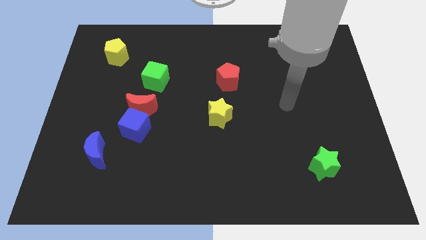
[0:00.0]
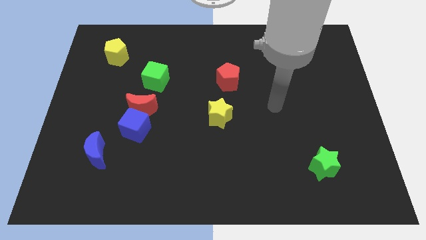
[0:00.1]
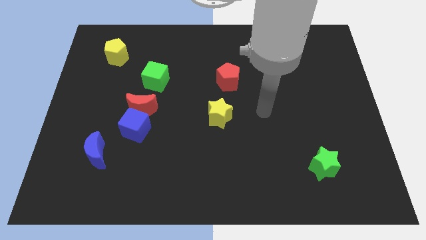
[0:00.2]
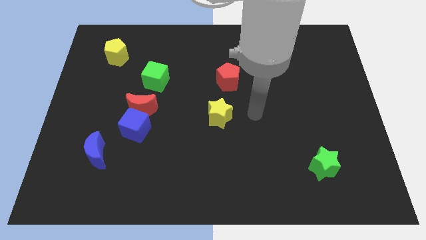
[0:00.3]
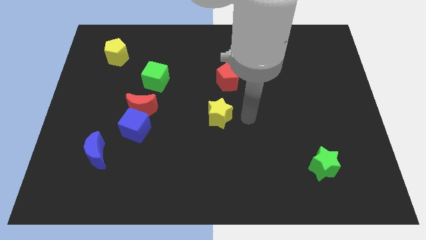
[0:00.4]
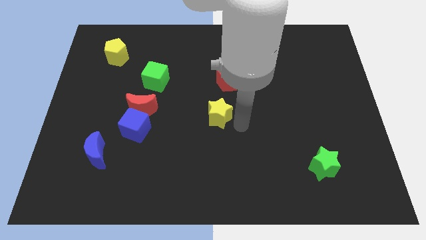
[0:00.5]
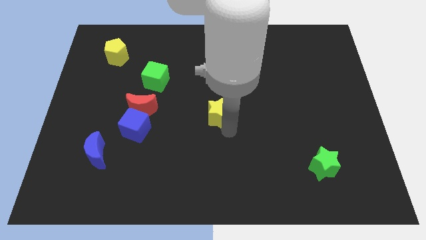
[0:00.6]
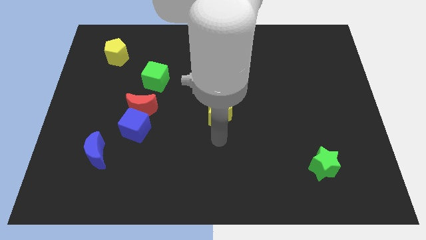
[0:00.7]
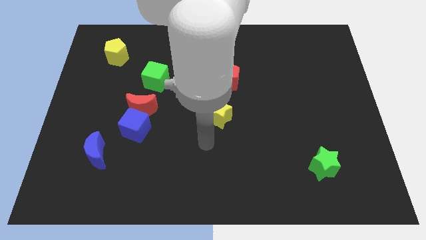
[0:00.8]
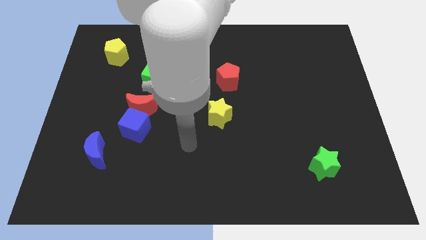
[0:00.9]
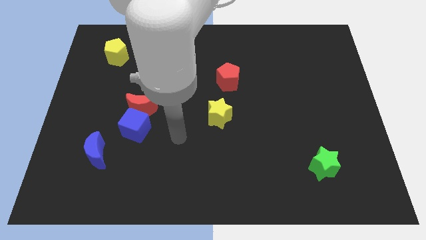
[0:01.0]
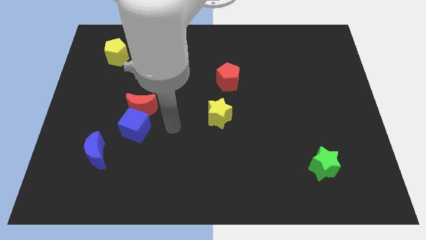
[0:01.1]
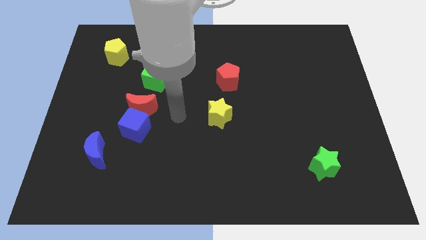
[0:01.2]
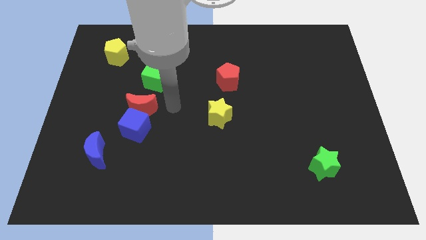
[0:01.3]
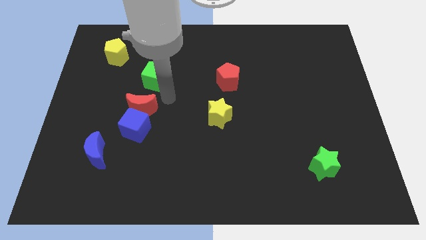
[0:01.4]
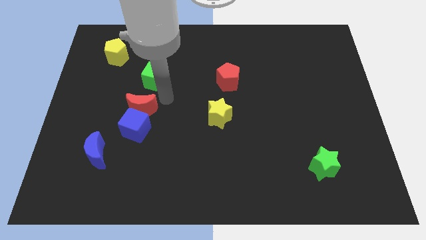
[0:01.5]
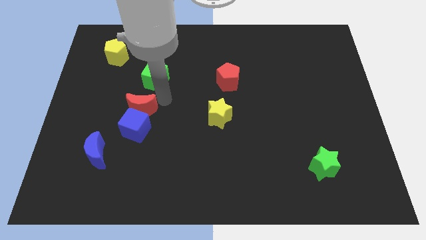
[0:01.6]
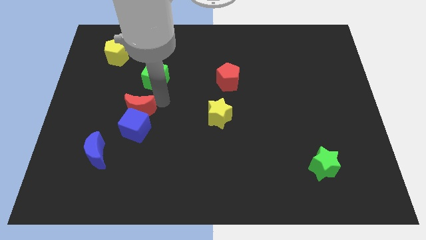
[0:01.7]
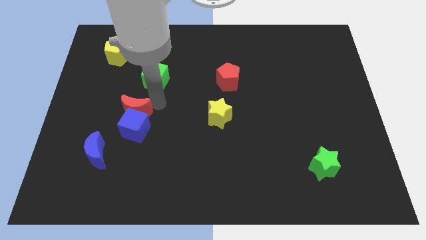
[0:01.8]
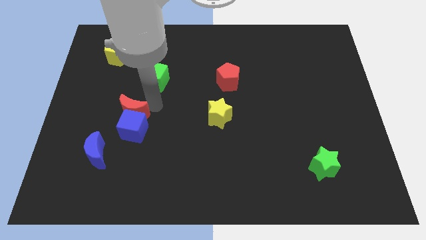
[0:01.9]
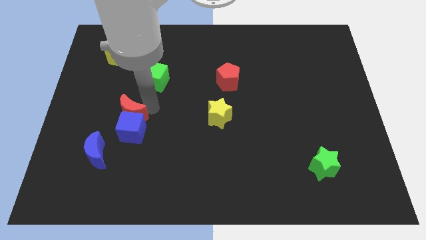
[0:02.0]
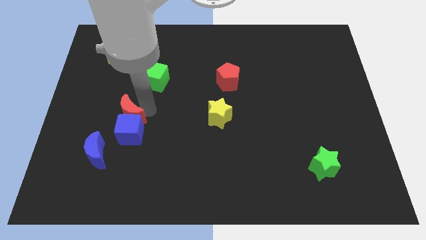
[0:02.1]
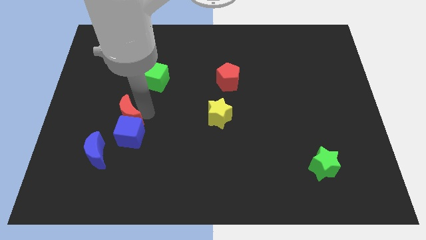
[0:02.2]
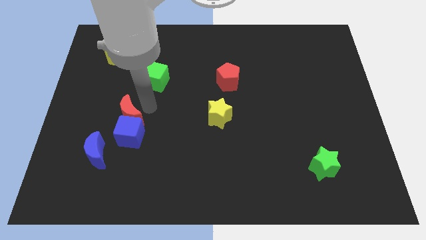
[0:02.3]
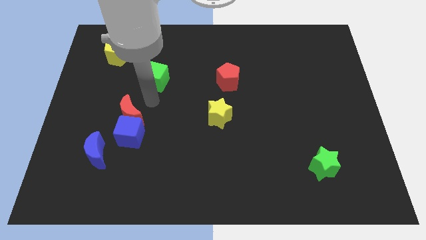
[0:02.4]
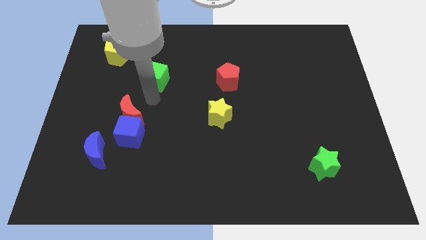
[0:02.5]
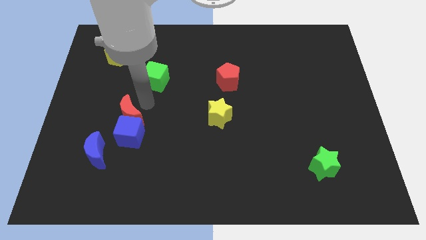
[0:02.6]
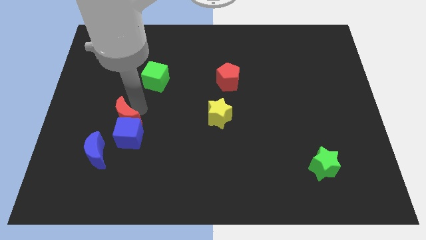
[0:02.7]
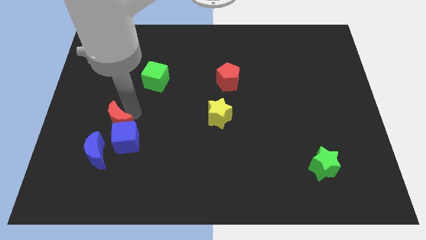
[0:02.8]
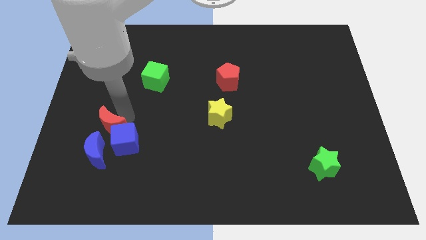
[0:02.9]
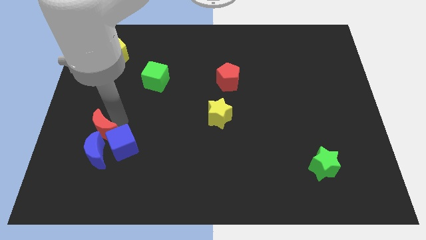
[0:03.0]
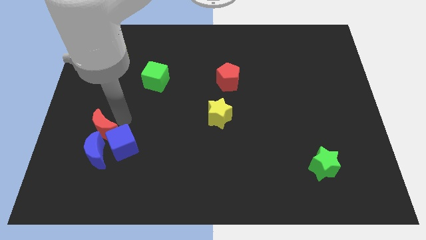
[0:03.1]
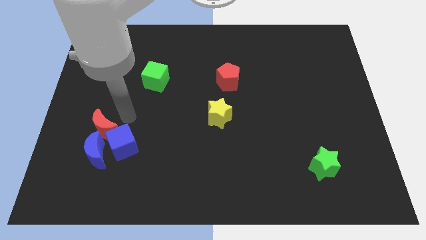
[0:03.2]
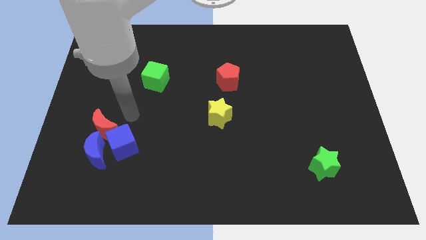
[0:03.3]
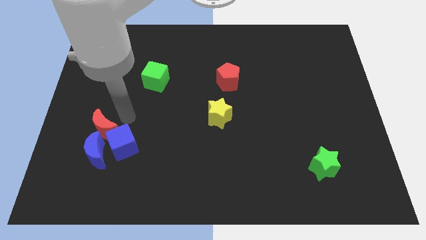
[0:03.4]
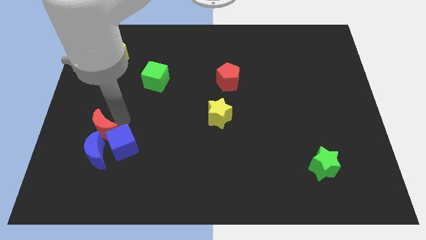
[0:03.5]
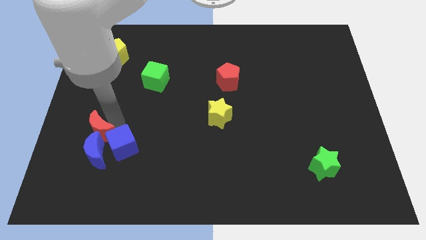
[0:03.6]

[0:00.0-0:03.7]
pull the red moon apart from the blue cube and green cube

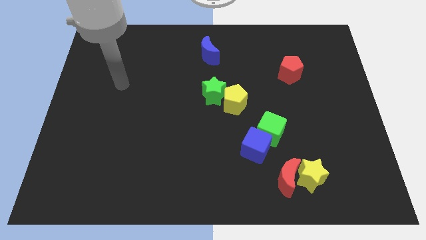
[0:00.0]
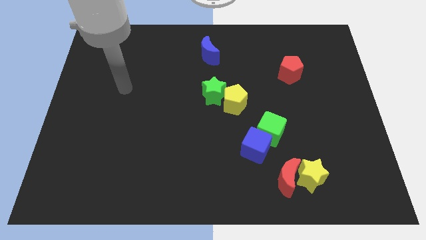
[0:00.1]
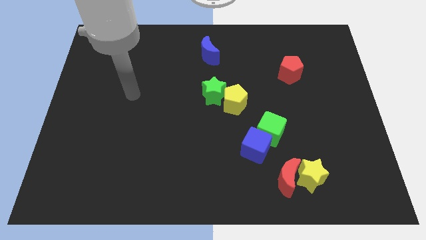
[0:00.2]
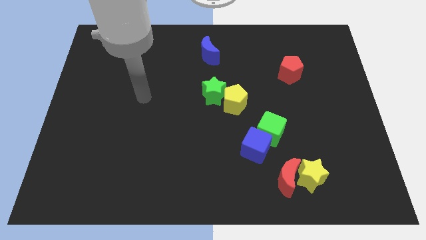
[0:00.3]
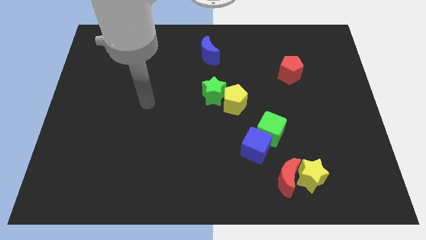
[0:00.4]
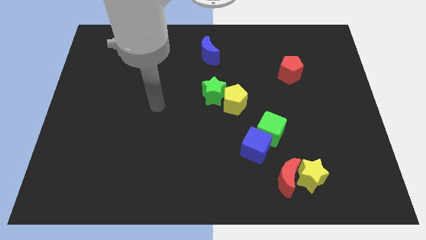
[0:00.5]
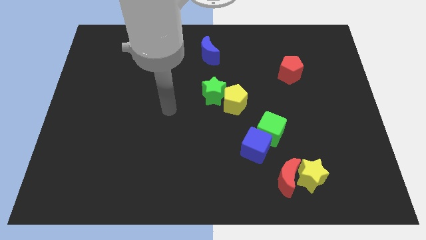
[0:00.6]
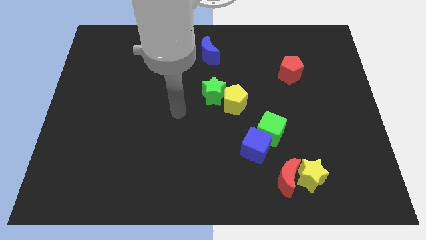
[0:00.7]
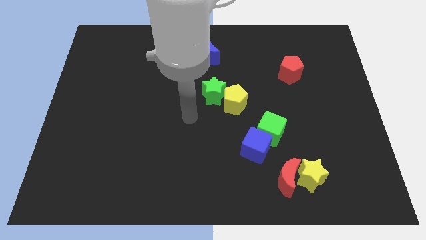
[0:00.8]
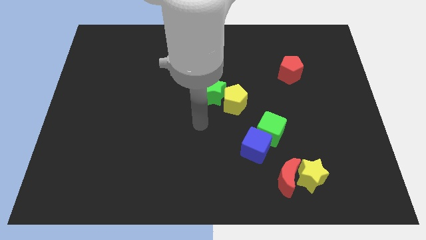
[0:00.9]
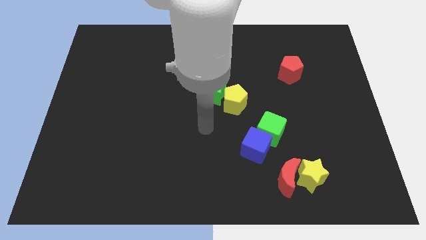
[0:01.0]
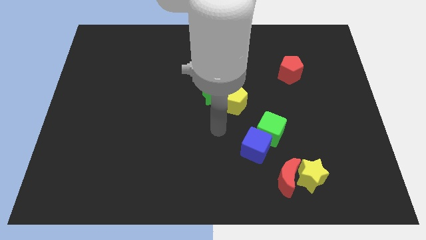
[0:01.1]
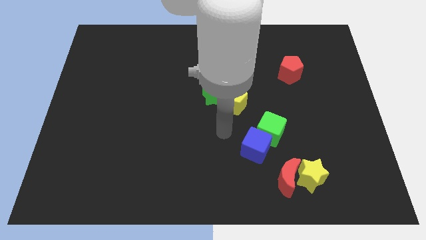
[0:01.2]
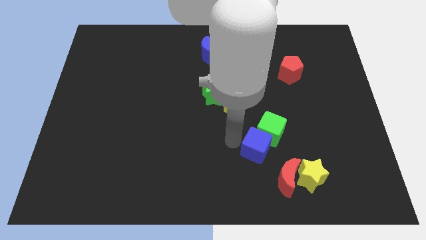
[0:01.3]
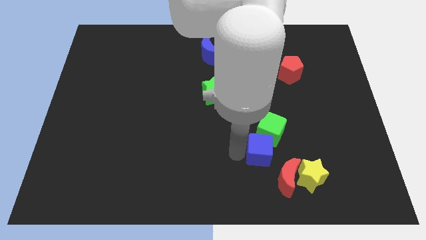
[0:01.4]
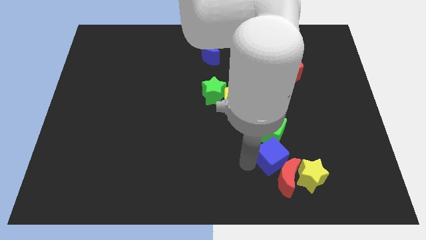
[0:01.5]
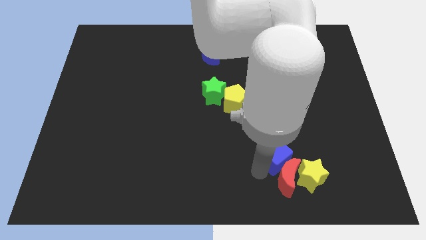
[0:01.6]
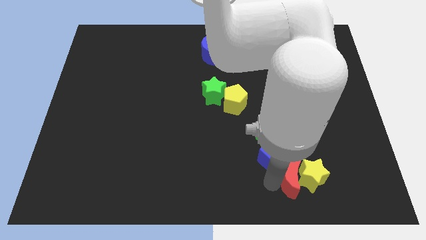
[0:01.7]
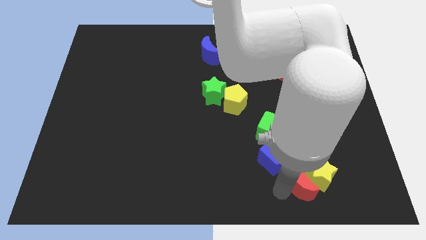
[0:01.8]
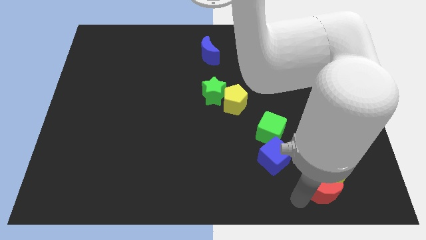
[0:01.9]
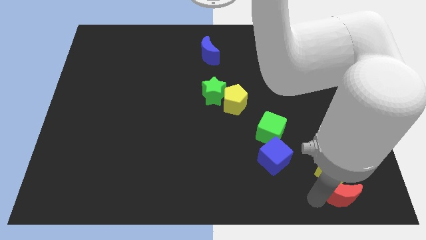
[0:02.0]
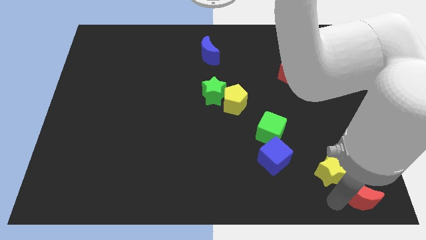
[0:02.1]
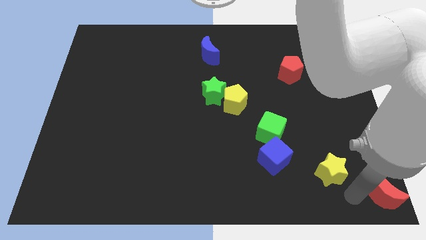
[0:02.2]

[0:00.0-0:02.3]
pull the yellow star apart from the red moon

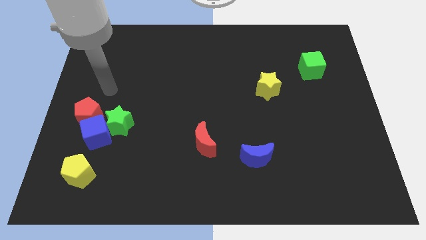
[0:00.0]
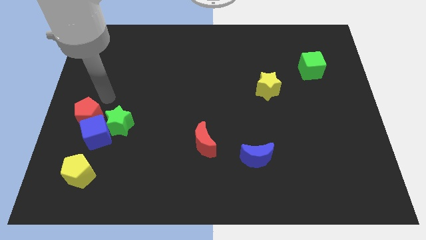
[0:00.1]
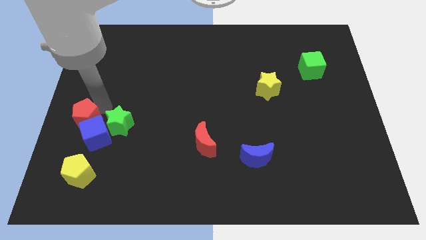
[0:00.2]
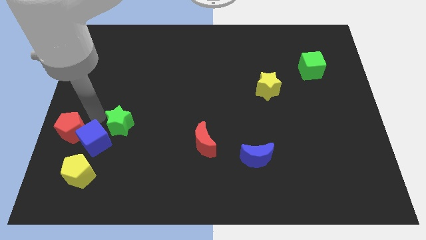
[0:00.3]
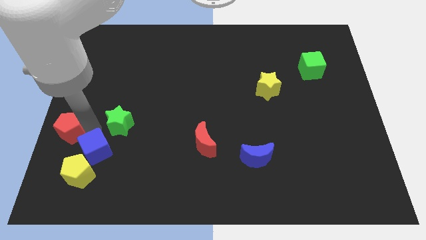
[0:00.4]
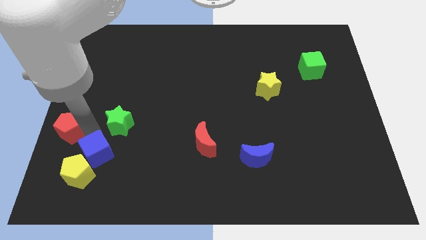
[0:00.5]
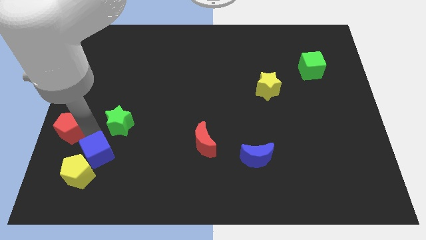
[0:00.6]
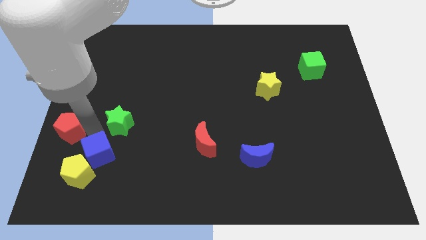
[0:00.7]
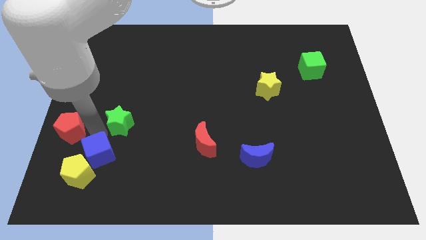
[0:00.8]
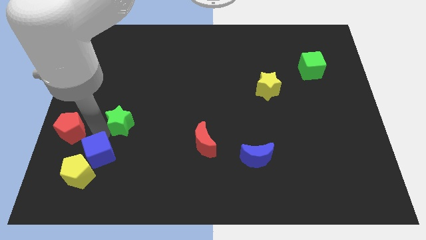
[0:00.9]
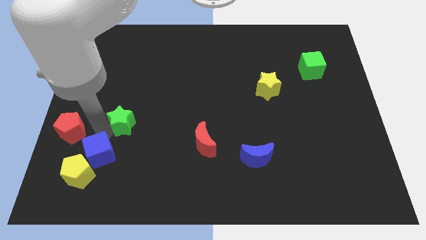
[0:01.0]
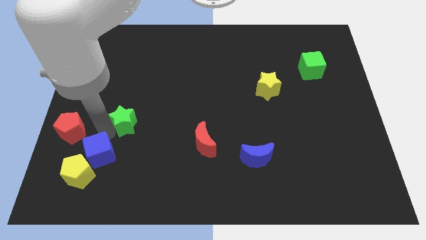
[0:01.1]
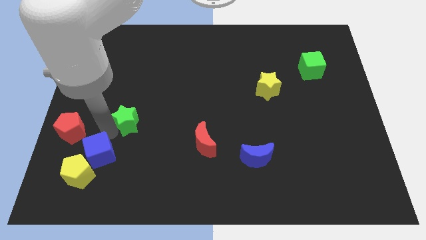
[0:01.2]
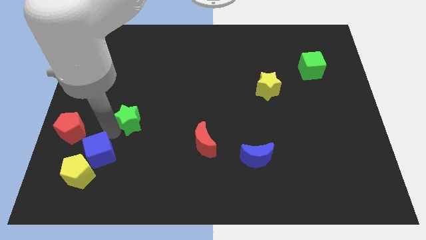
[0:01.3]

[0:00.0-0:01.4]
move the green star away from the blue cube and red pentagon

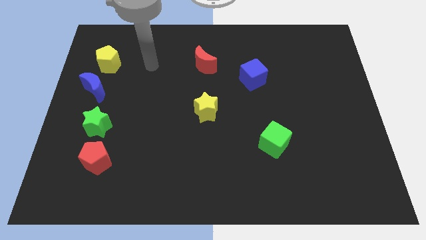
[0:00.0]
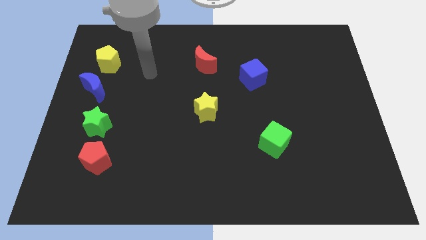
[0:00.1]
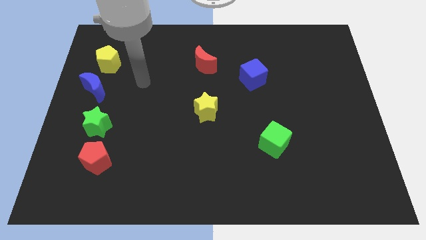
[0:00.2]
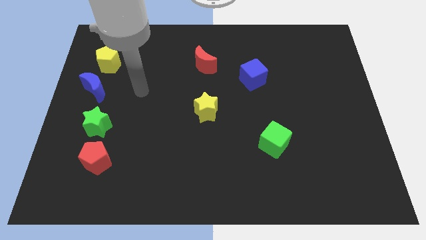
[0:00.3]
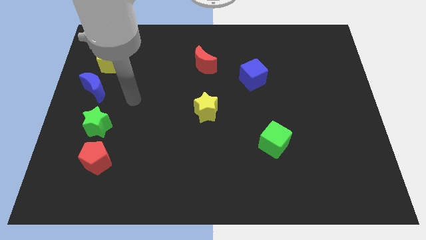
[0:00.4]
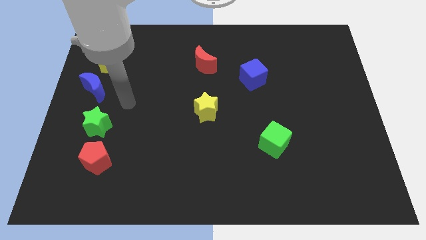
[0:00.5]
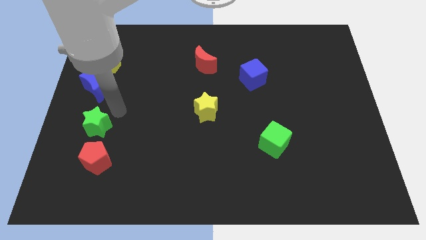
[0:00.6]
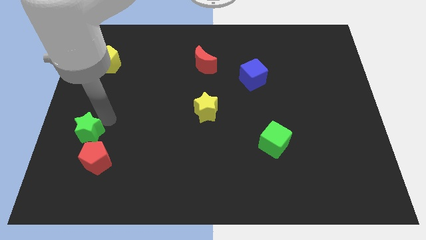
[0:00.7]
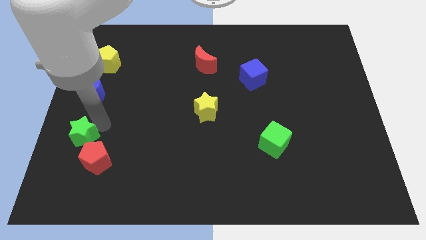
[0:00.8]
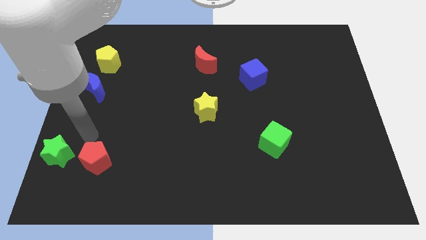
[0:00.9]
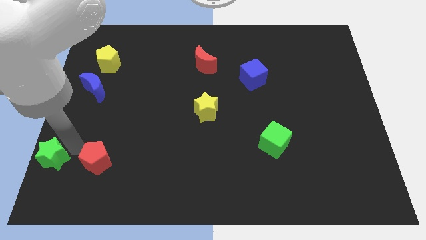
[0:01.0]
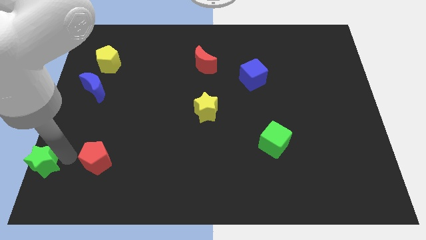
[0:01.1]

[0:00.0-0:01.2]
move the red pentagon away from the green star

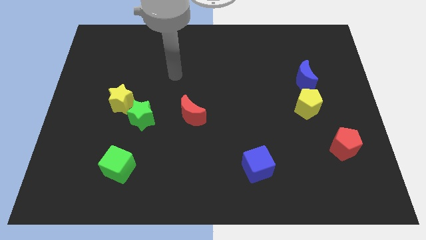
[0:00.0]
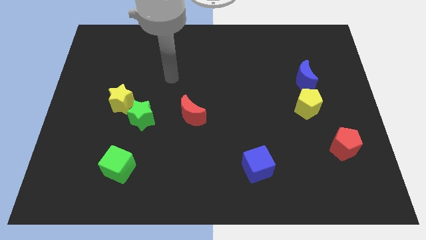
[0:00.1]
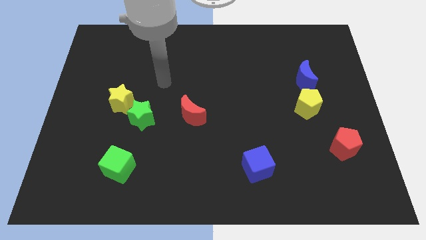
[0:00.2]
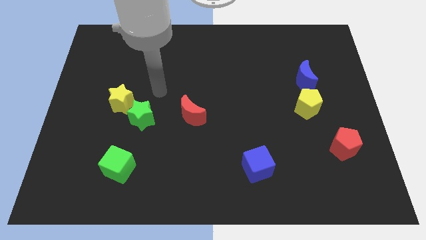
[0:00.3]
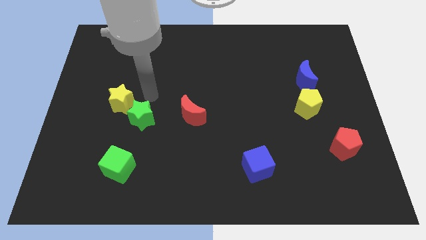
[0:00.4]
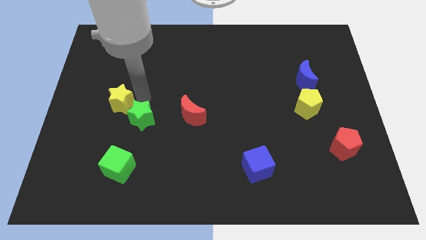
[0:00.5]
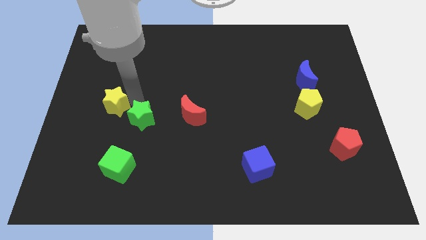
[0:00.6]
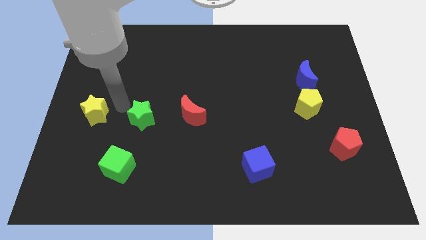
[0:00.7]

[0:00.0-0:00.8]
move the green star away from the yellow star

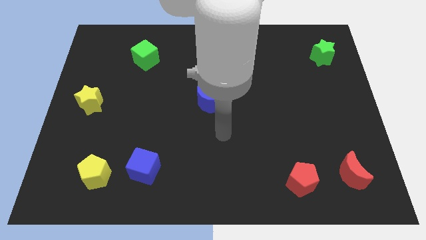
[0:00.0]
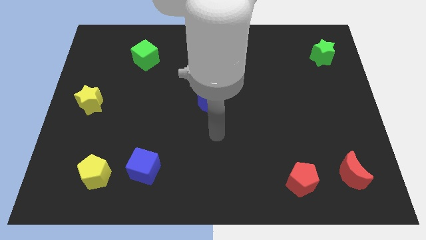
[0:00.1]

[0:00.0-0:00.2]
pull the blue cube apart from the yellow pentagon
